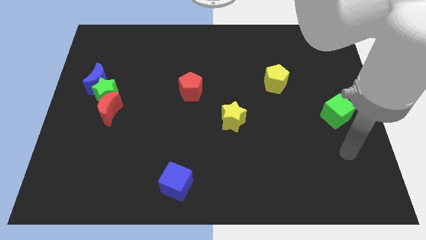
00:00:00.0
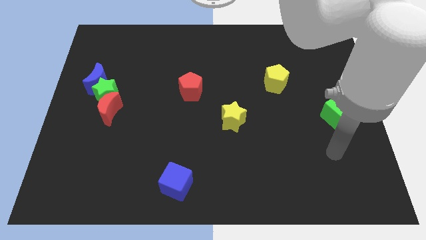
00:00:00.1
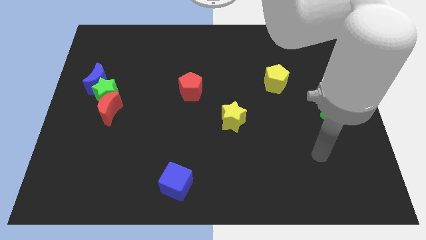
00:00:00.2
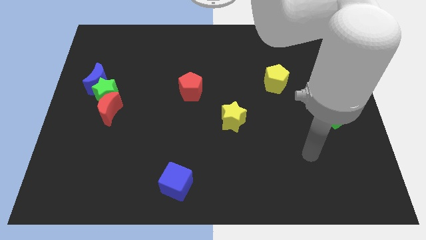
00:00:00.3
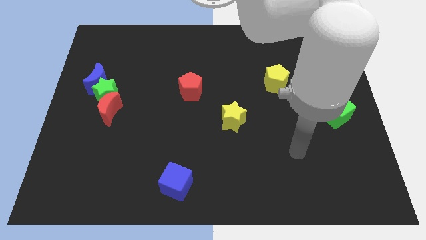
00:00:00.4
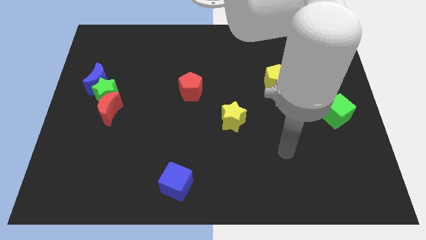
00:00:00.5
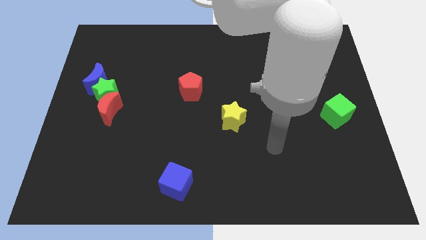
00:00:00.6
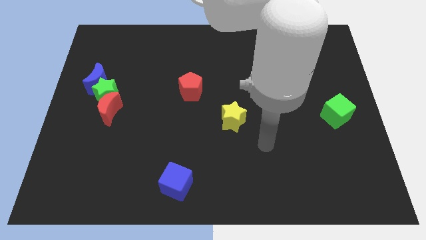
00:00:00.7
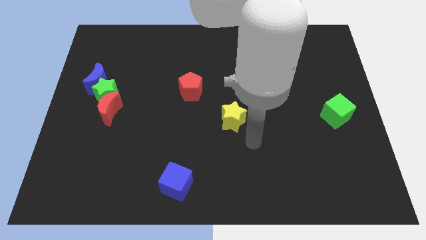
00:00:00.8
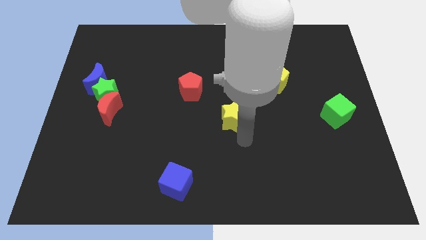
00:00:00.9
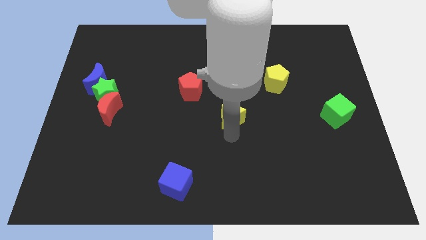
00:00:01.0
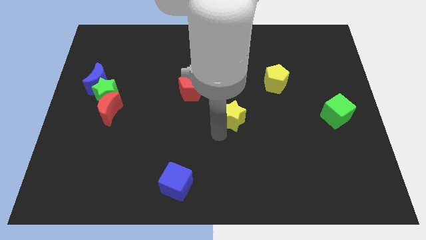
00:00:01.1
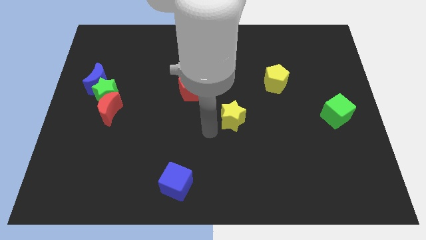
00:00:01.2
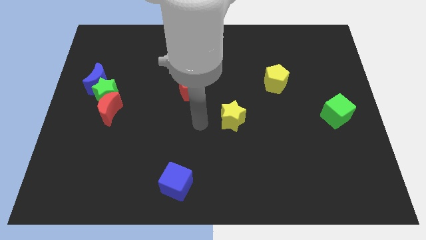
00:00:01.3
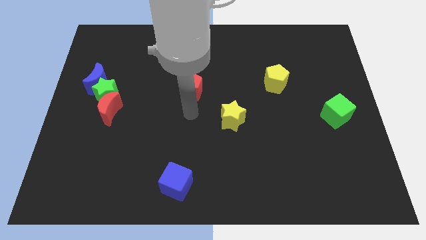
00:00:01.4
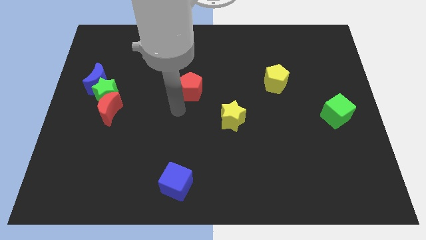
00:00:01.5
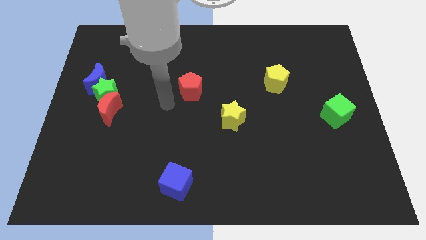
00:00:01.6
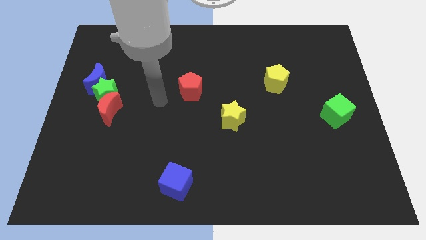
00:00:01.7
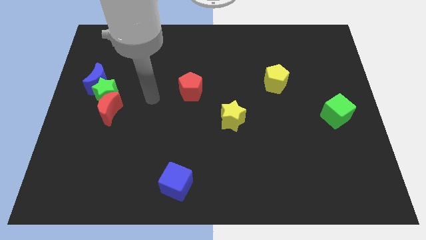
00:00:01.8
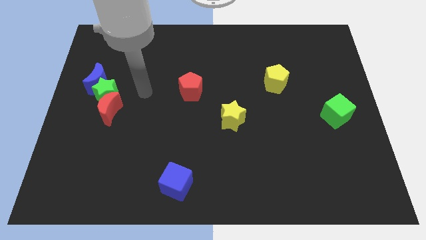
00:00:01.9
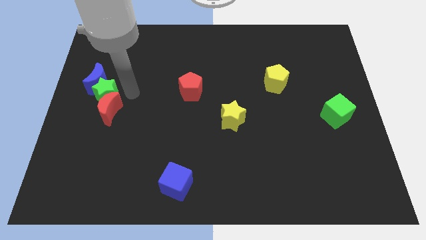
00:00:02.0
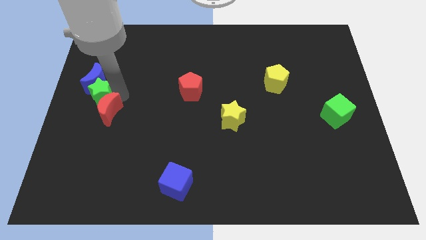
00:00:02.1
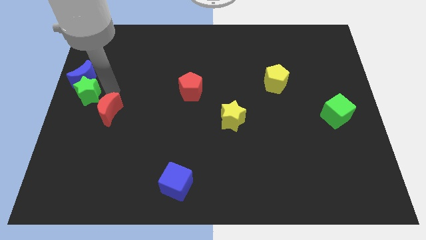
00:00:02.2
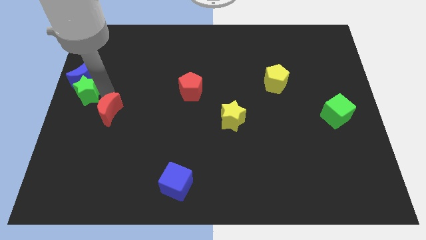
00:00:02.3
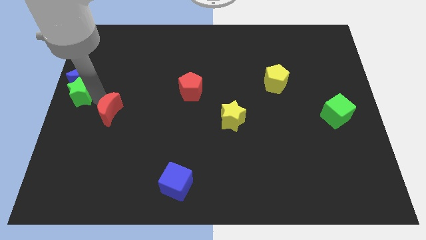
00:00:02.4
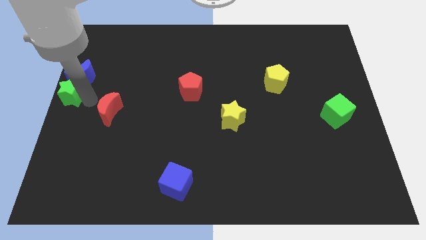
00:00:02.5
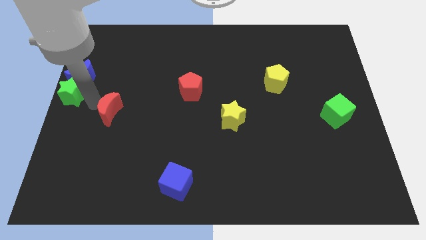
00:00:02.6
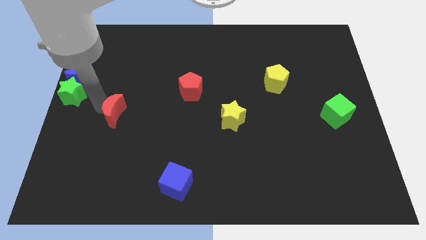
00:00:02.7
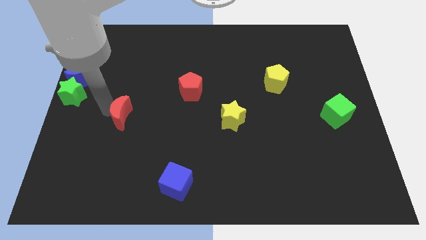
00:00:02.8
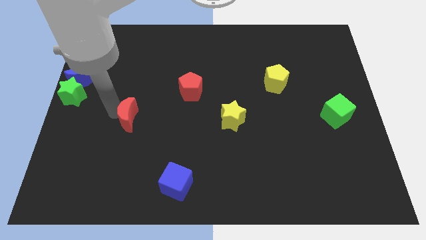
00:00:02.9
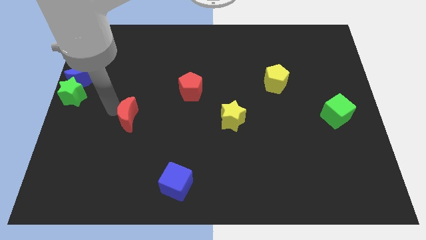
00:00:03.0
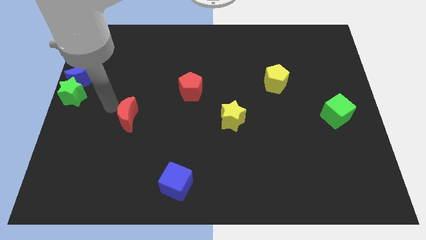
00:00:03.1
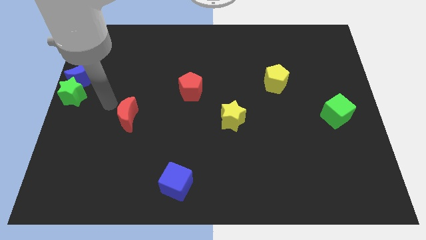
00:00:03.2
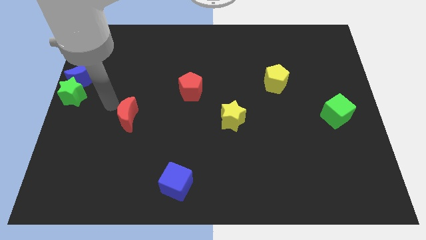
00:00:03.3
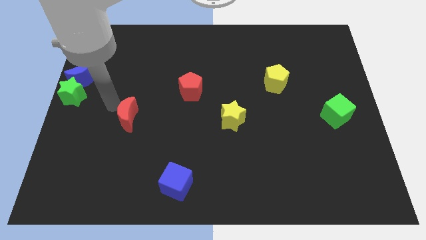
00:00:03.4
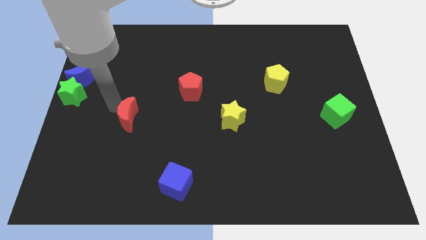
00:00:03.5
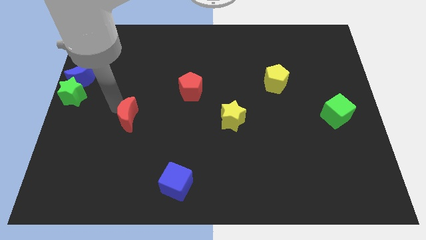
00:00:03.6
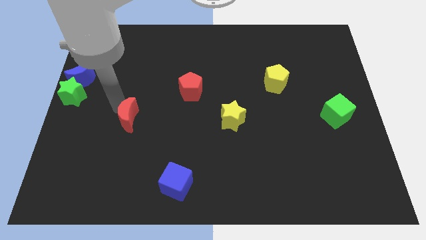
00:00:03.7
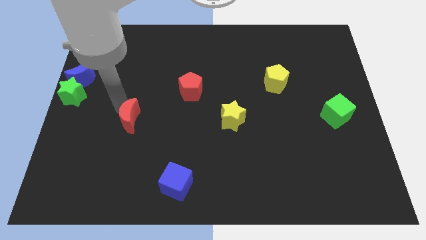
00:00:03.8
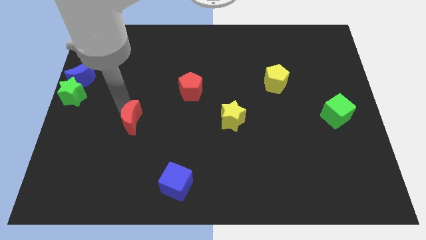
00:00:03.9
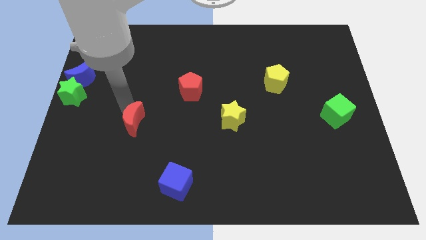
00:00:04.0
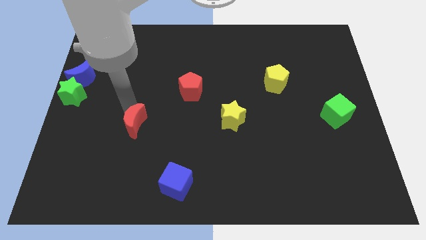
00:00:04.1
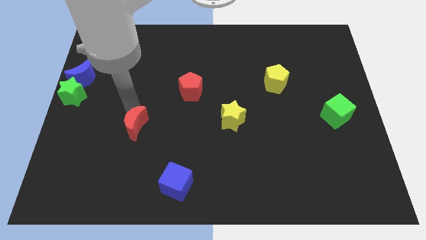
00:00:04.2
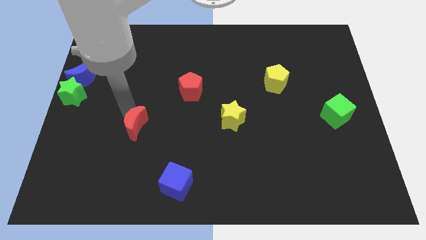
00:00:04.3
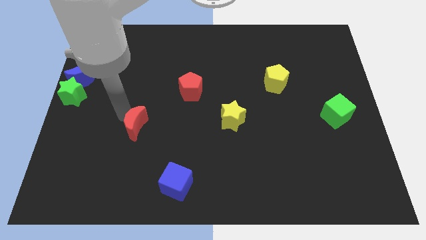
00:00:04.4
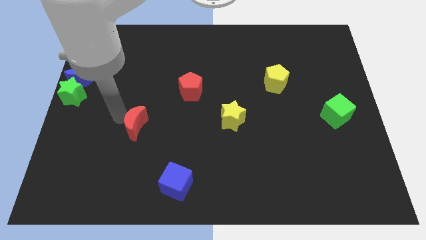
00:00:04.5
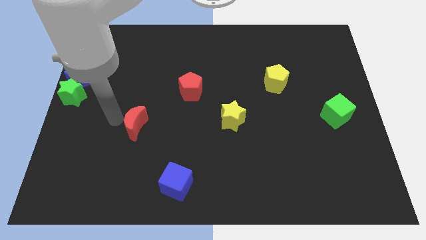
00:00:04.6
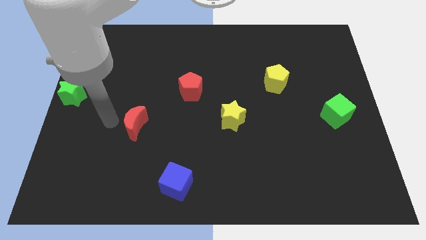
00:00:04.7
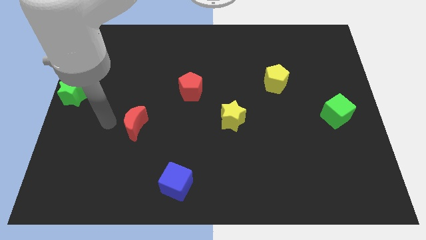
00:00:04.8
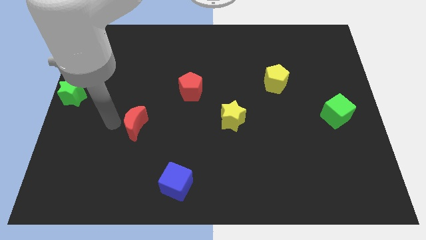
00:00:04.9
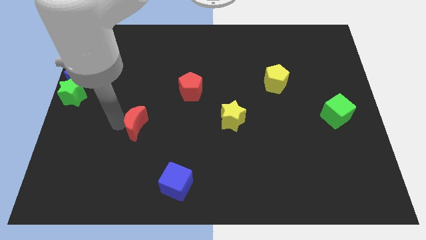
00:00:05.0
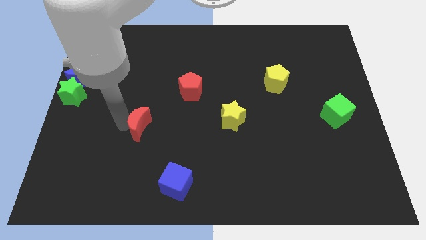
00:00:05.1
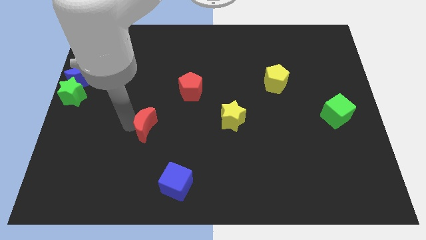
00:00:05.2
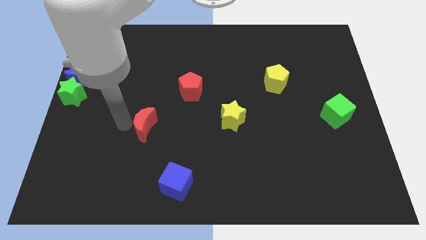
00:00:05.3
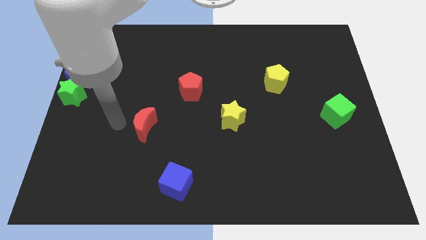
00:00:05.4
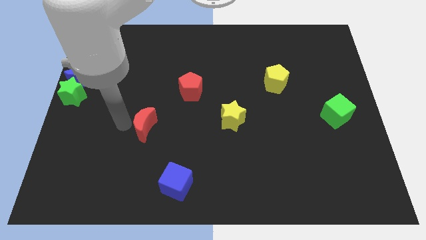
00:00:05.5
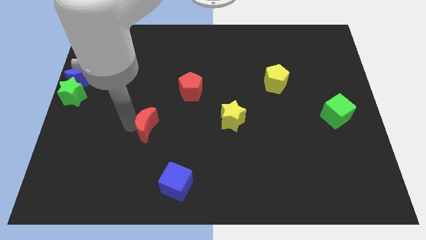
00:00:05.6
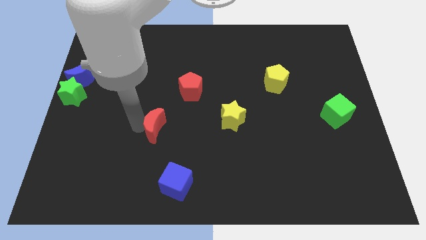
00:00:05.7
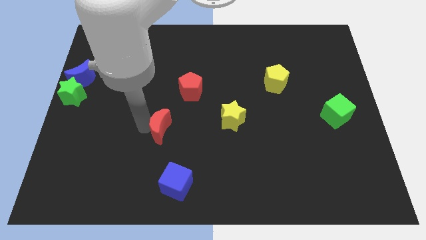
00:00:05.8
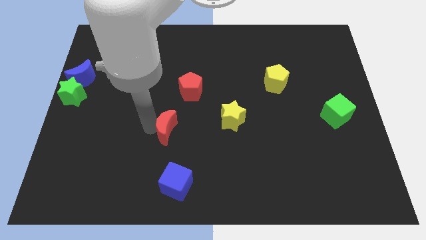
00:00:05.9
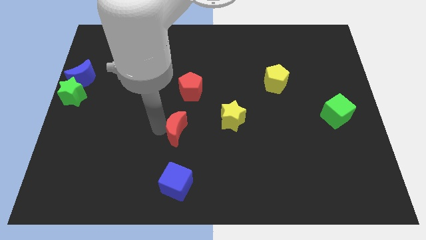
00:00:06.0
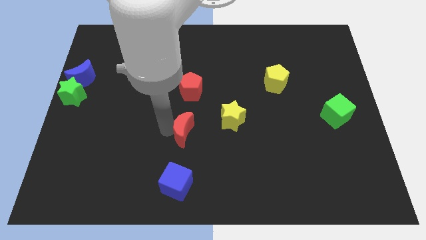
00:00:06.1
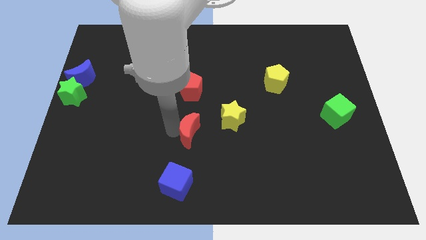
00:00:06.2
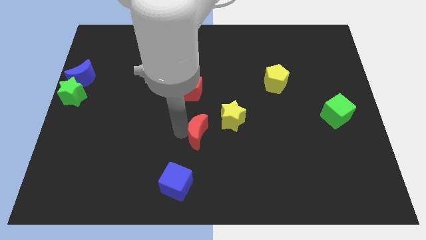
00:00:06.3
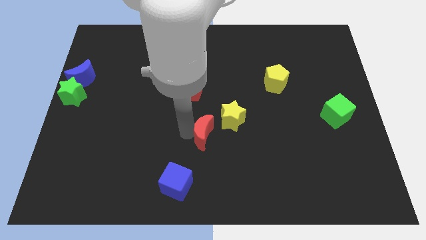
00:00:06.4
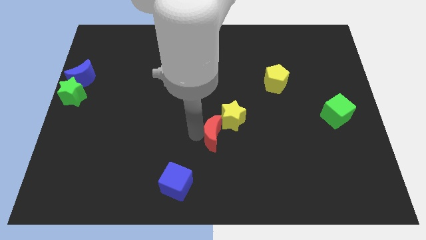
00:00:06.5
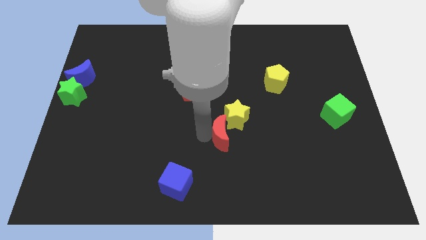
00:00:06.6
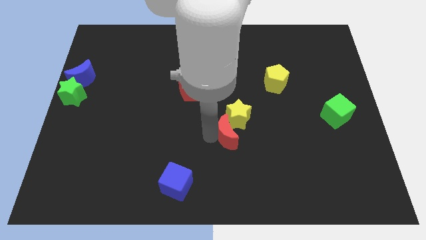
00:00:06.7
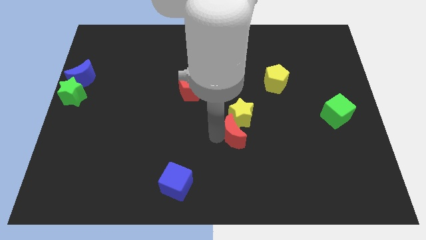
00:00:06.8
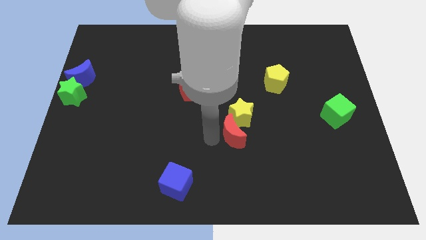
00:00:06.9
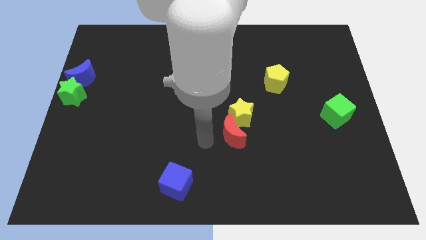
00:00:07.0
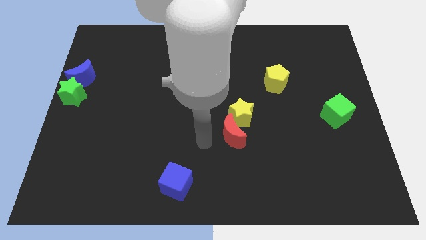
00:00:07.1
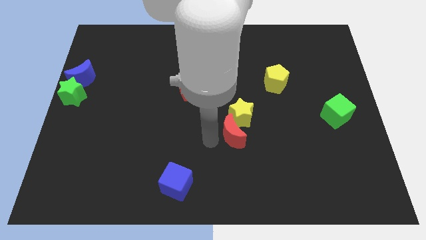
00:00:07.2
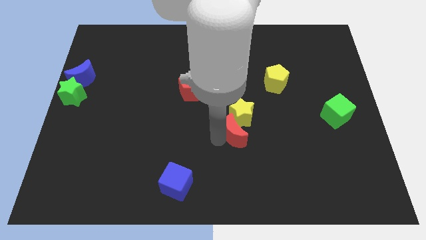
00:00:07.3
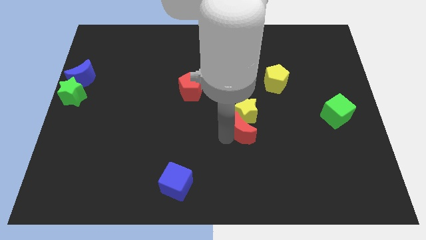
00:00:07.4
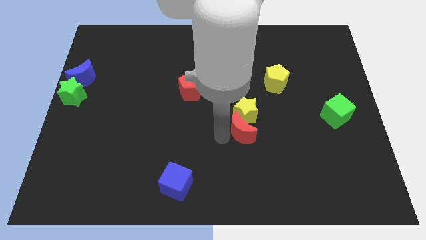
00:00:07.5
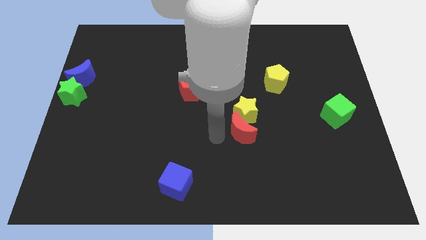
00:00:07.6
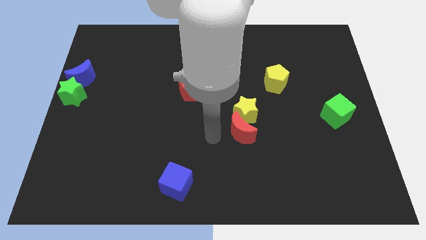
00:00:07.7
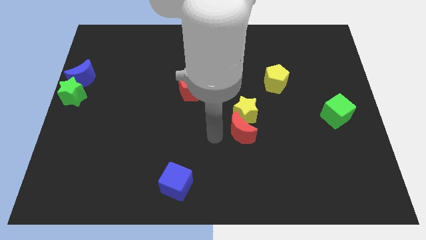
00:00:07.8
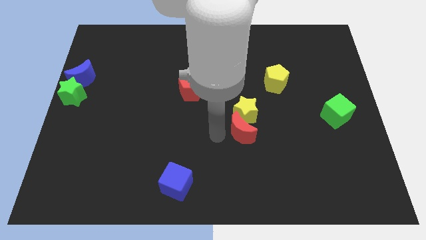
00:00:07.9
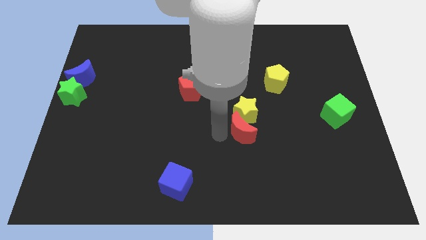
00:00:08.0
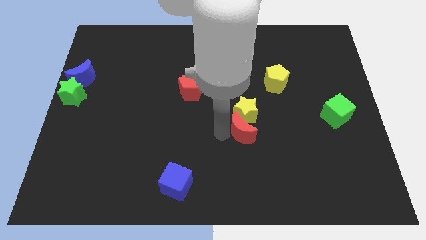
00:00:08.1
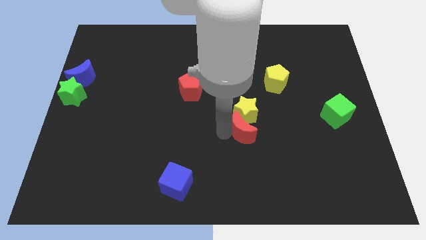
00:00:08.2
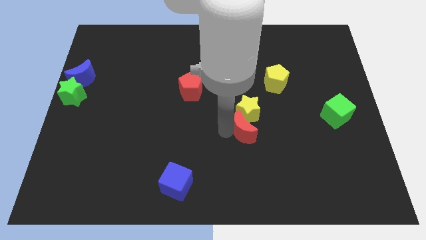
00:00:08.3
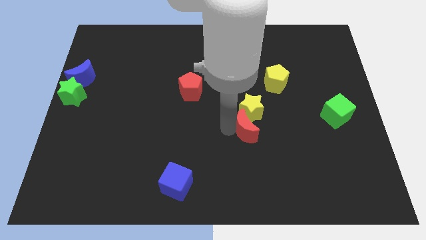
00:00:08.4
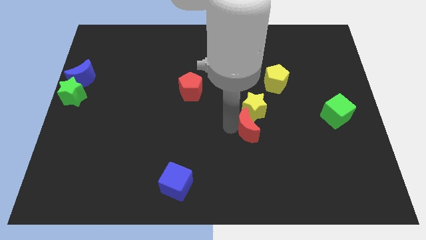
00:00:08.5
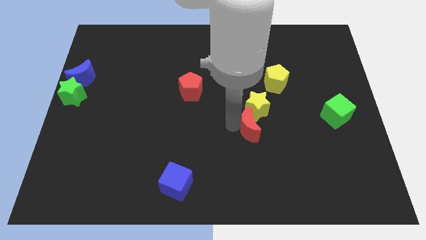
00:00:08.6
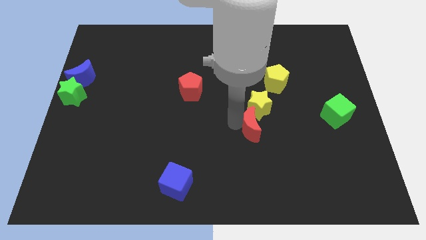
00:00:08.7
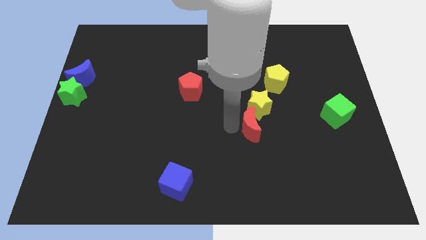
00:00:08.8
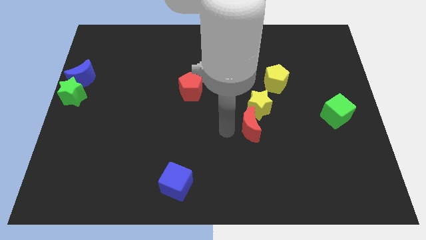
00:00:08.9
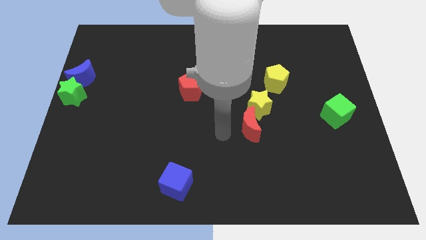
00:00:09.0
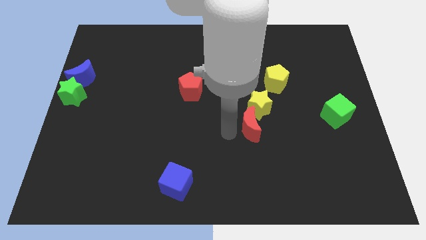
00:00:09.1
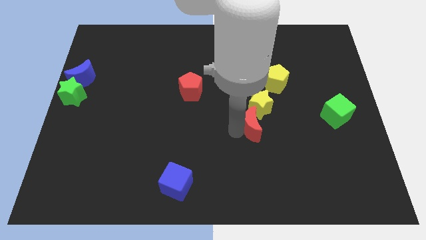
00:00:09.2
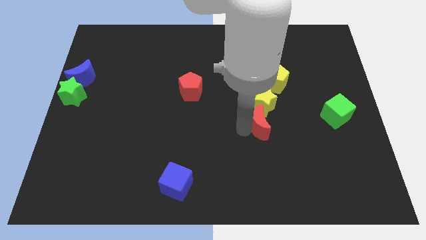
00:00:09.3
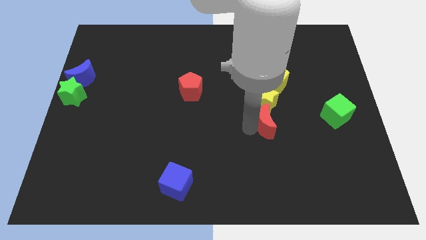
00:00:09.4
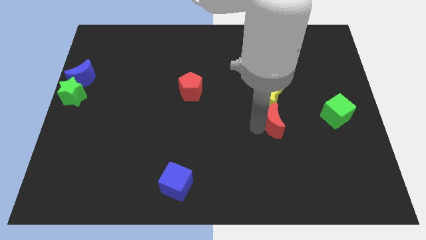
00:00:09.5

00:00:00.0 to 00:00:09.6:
push the red moon to the left side of the green cube
